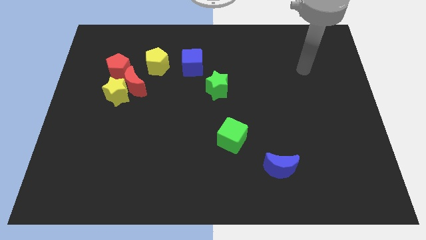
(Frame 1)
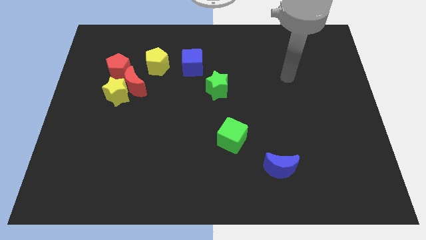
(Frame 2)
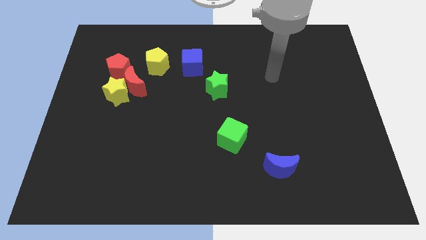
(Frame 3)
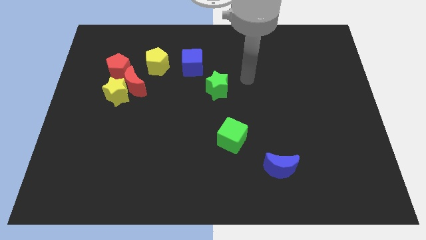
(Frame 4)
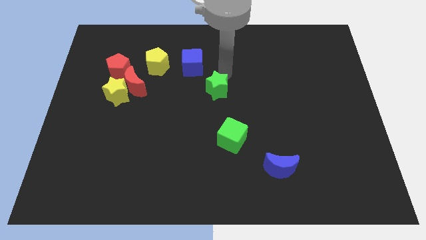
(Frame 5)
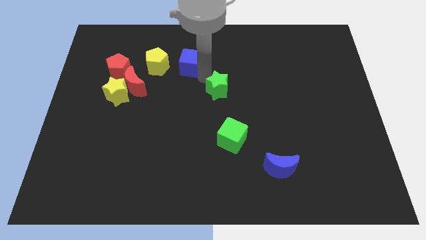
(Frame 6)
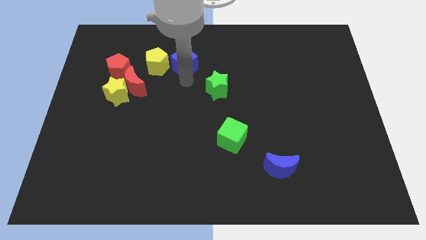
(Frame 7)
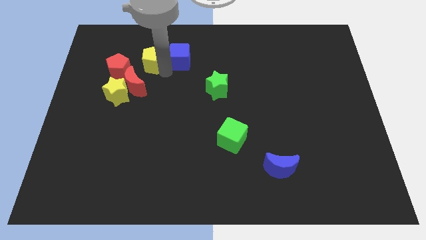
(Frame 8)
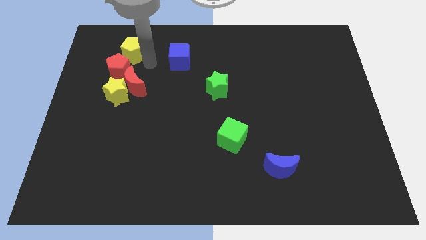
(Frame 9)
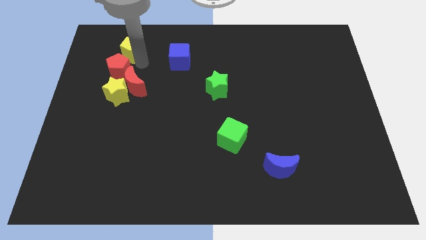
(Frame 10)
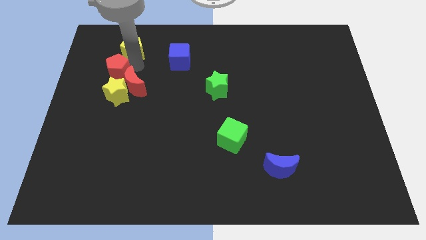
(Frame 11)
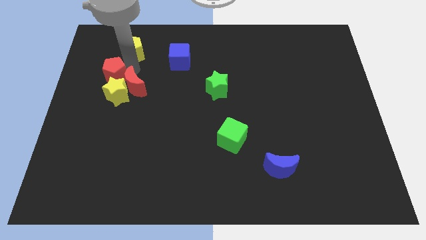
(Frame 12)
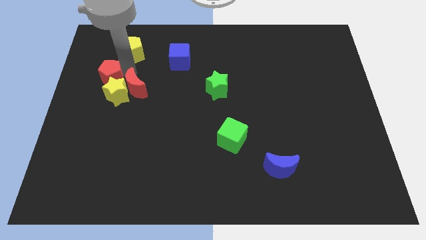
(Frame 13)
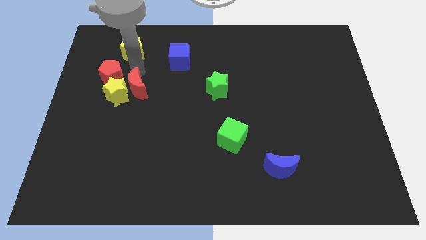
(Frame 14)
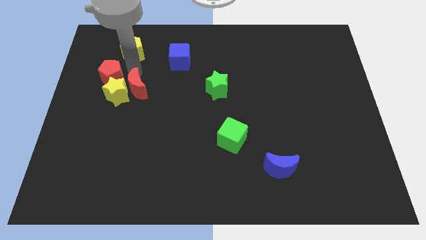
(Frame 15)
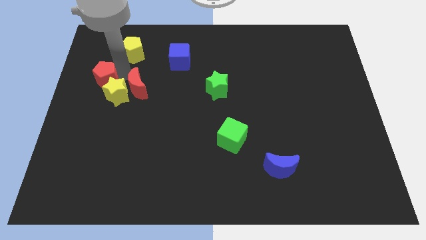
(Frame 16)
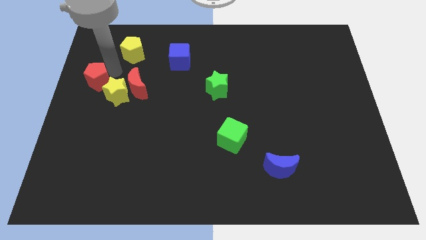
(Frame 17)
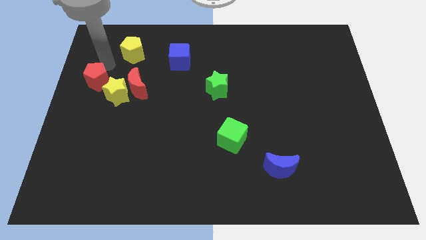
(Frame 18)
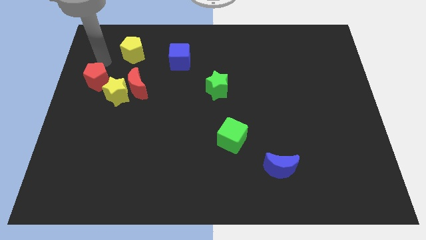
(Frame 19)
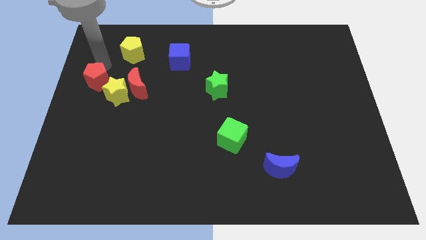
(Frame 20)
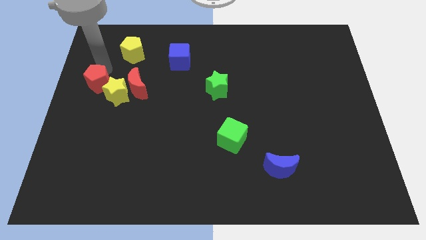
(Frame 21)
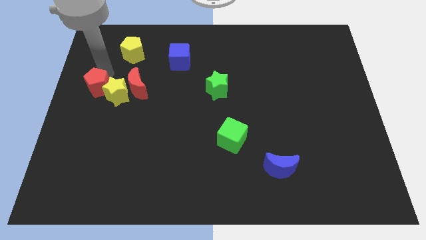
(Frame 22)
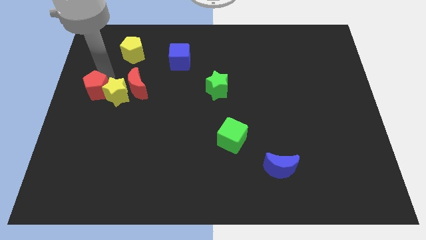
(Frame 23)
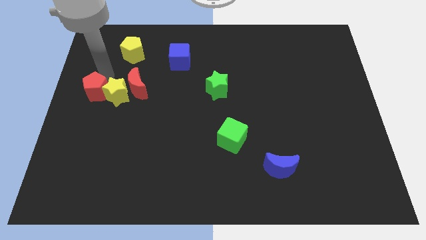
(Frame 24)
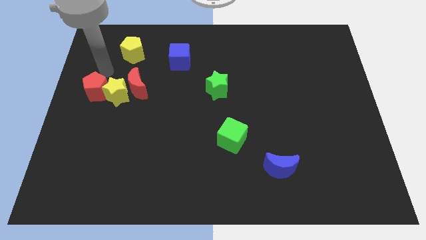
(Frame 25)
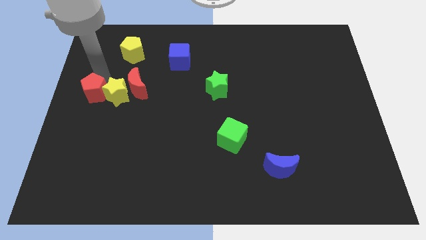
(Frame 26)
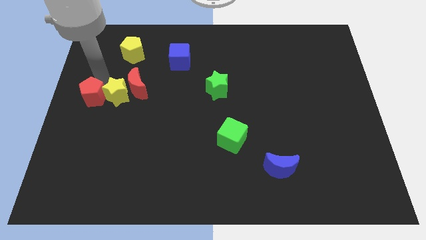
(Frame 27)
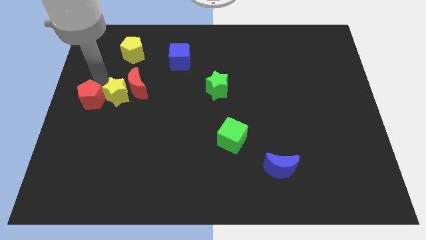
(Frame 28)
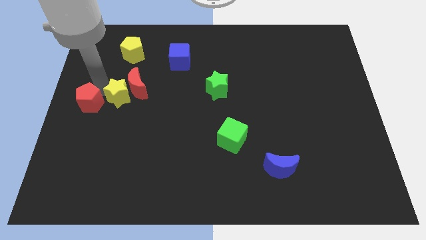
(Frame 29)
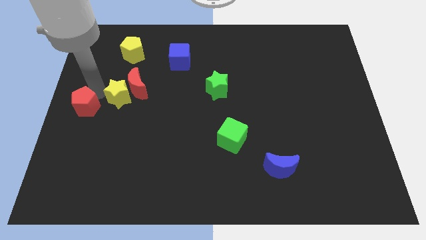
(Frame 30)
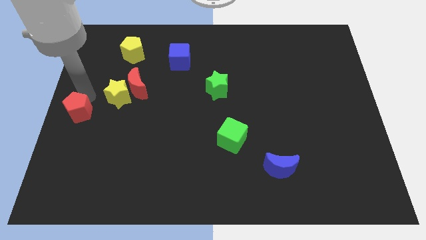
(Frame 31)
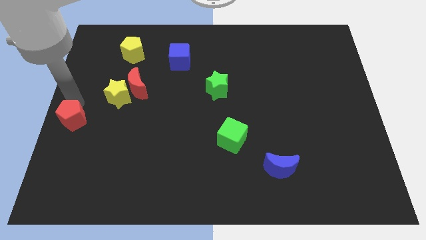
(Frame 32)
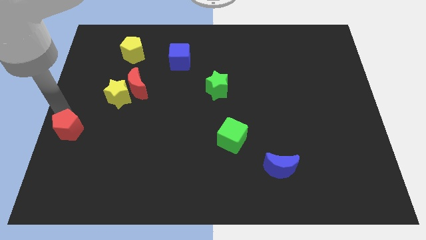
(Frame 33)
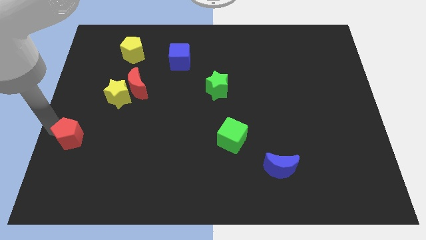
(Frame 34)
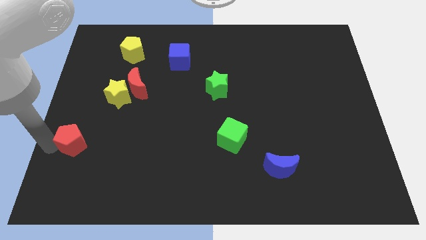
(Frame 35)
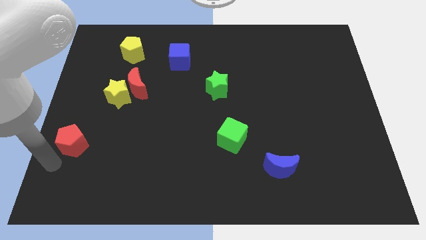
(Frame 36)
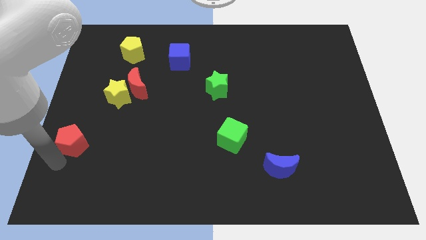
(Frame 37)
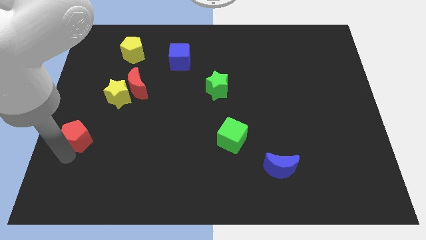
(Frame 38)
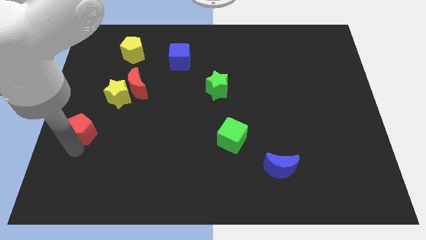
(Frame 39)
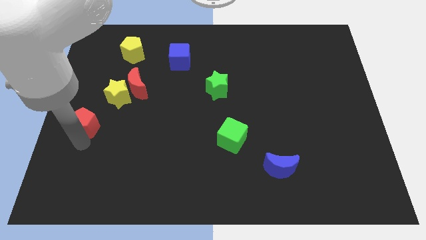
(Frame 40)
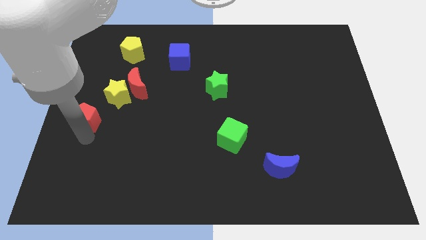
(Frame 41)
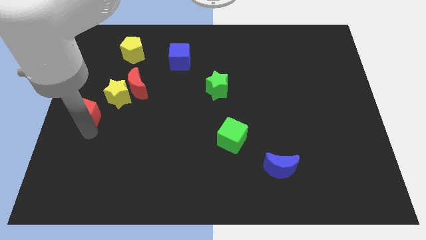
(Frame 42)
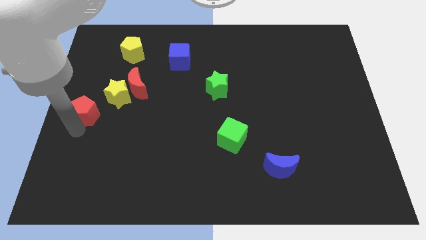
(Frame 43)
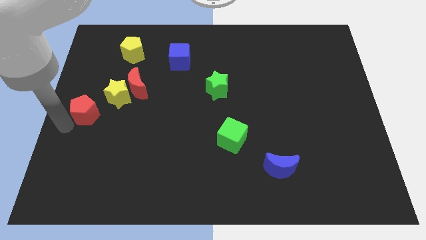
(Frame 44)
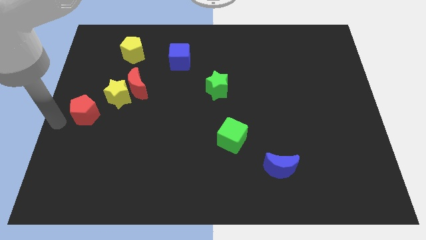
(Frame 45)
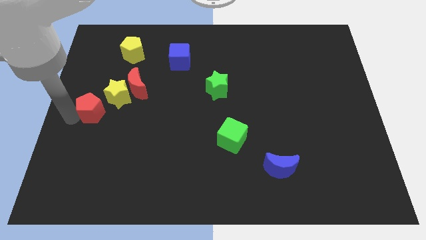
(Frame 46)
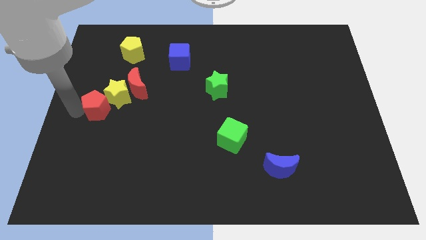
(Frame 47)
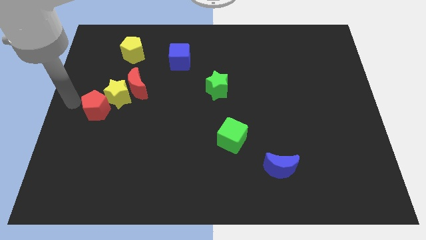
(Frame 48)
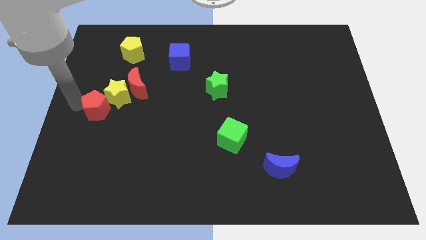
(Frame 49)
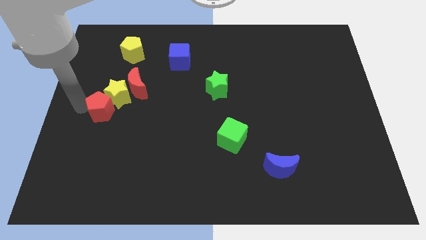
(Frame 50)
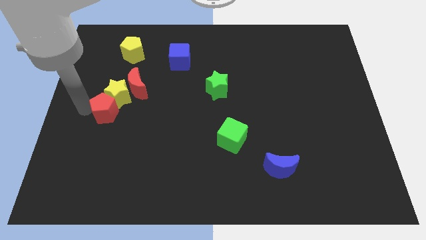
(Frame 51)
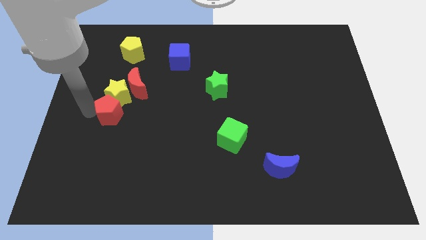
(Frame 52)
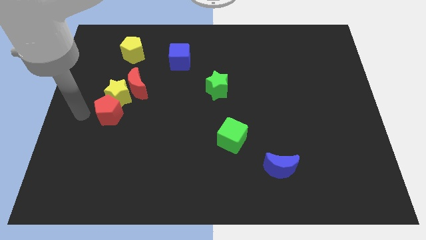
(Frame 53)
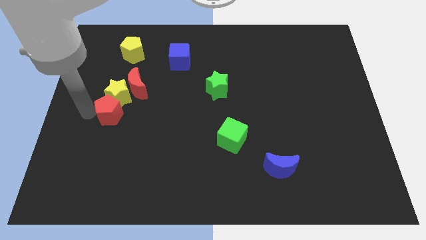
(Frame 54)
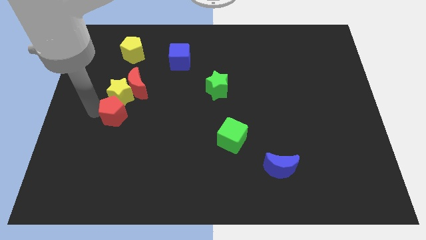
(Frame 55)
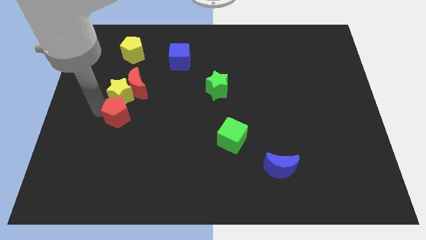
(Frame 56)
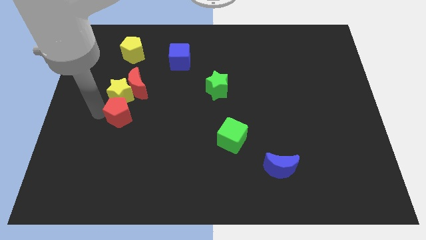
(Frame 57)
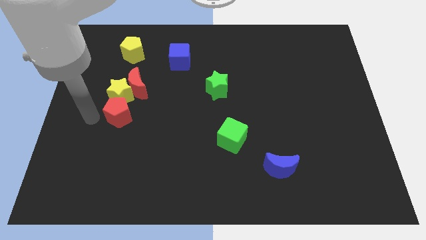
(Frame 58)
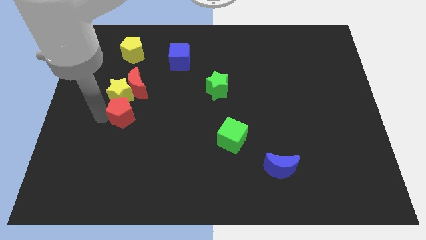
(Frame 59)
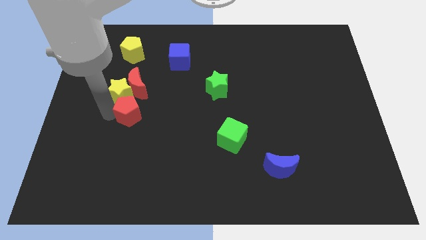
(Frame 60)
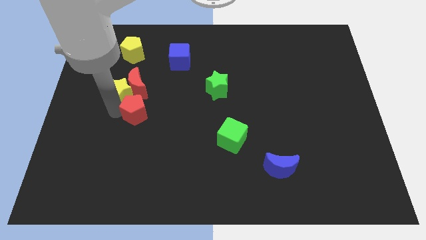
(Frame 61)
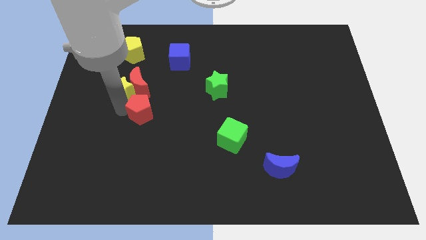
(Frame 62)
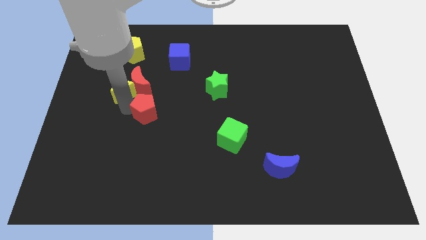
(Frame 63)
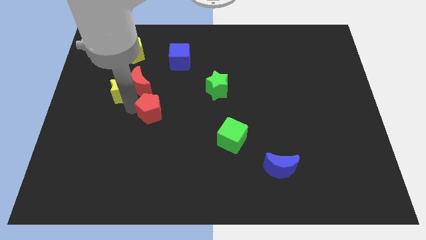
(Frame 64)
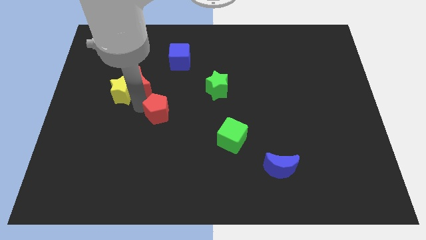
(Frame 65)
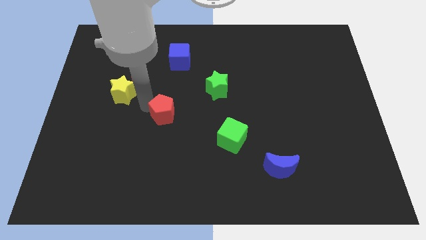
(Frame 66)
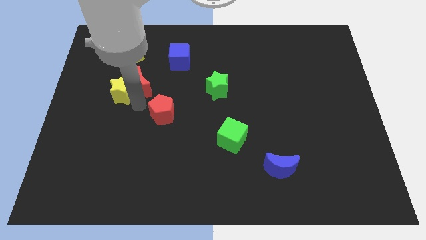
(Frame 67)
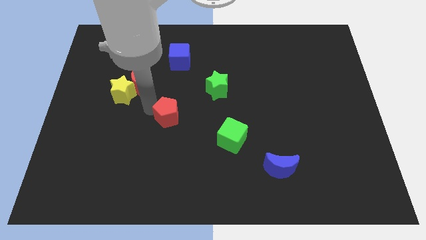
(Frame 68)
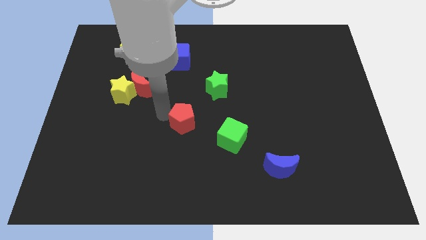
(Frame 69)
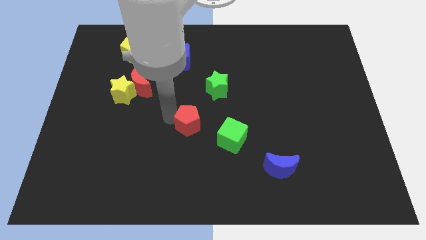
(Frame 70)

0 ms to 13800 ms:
move the red pentagon to the top left side of the green cube
